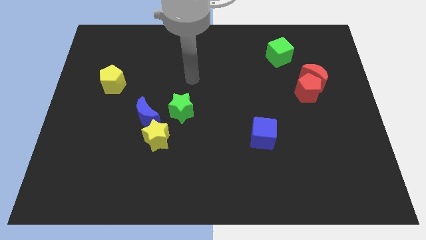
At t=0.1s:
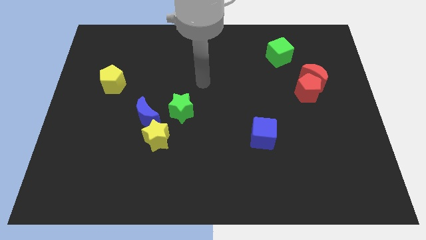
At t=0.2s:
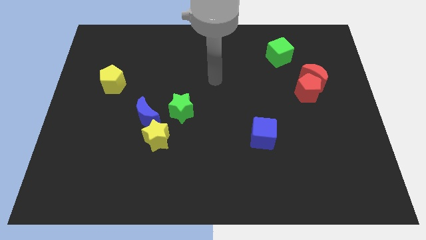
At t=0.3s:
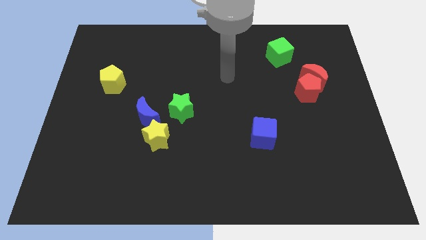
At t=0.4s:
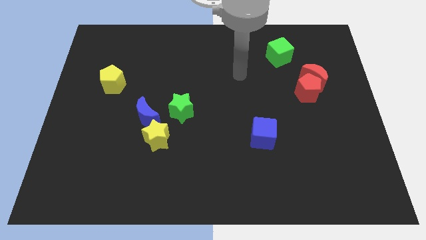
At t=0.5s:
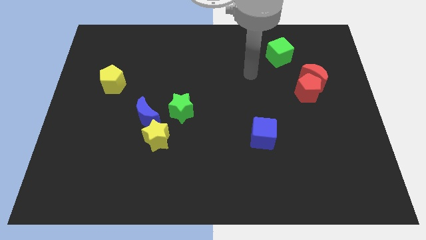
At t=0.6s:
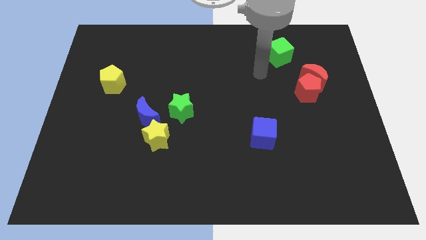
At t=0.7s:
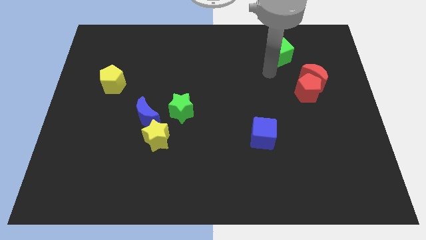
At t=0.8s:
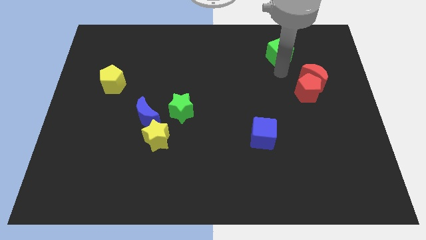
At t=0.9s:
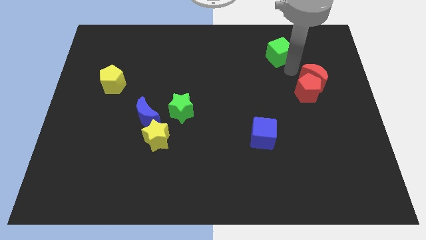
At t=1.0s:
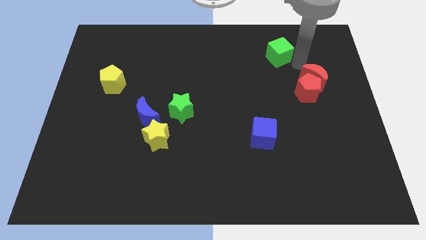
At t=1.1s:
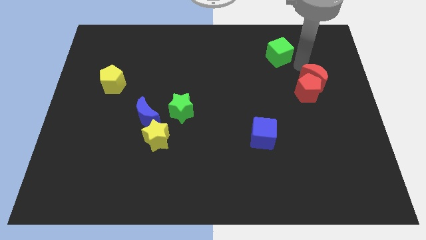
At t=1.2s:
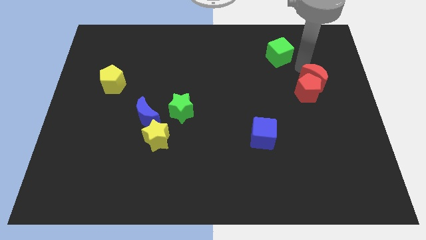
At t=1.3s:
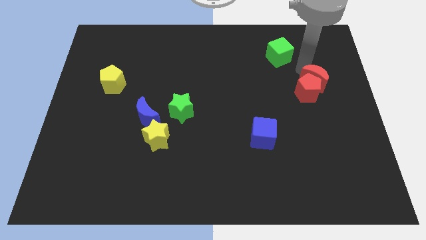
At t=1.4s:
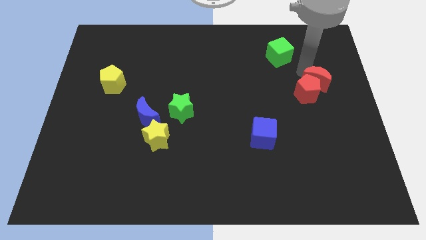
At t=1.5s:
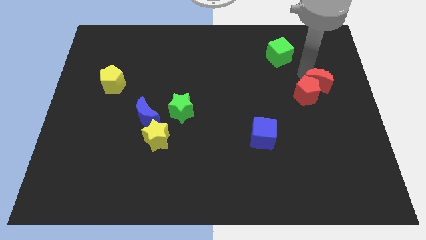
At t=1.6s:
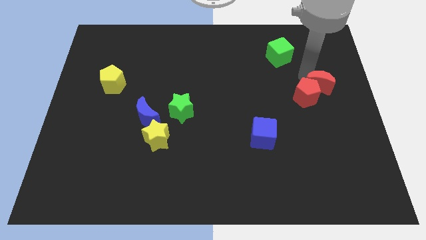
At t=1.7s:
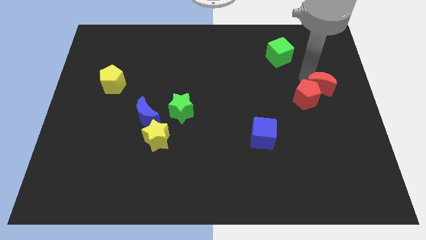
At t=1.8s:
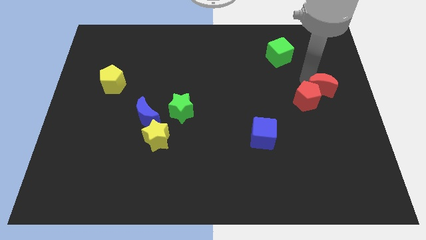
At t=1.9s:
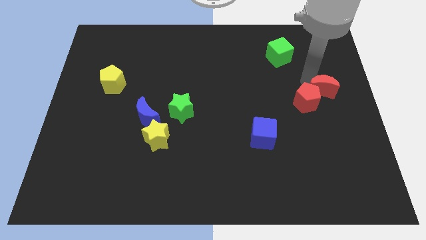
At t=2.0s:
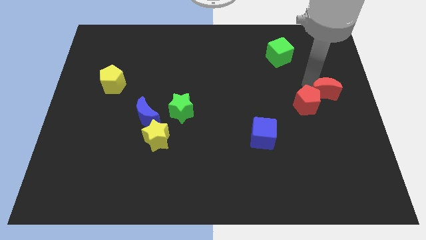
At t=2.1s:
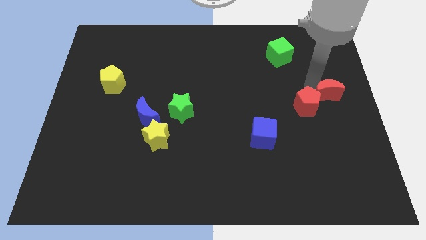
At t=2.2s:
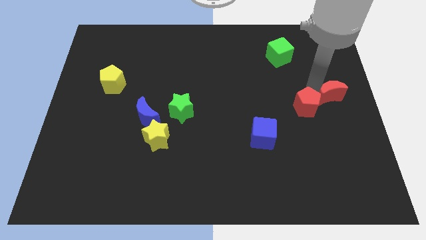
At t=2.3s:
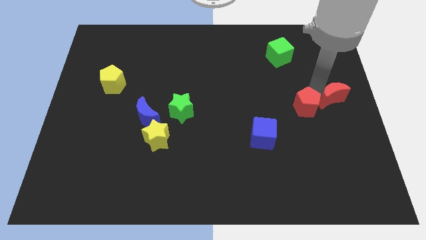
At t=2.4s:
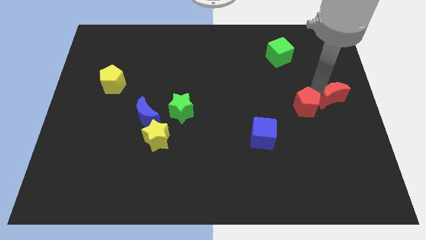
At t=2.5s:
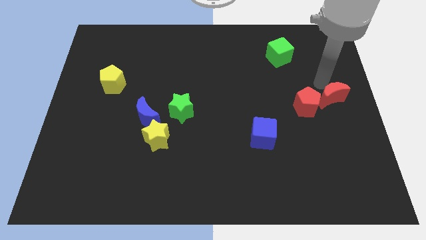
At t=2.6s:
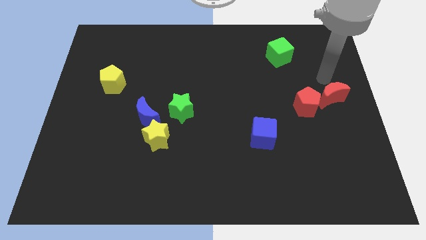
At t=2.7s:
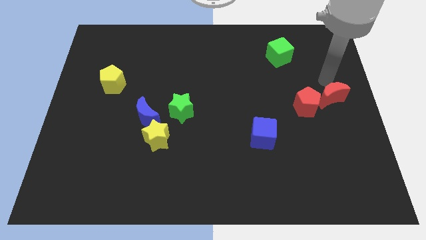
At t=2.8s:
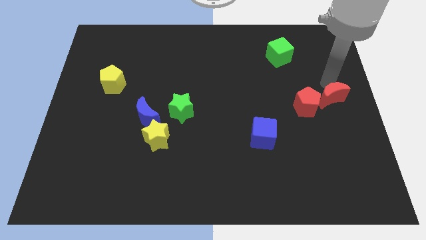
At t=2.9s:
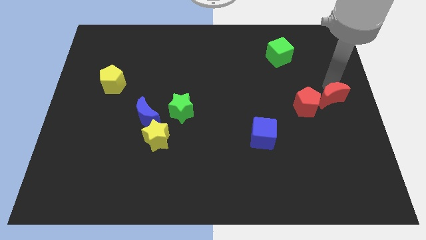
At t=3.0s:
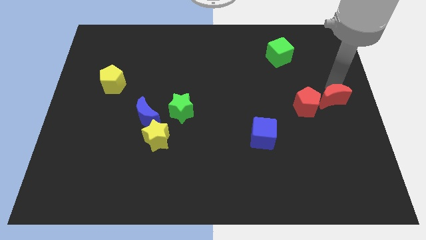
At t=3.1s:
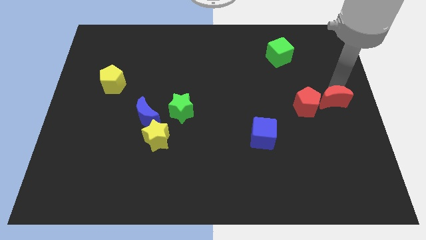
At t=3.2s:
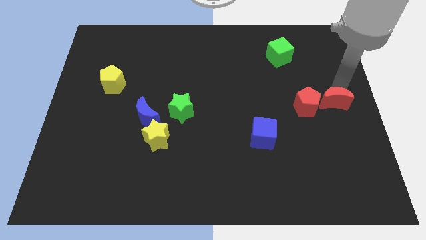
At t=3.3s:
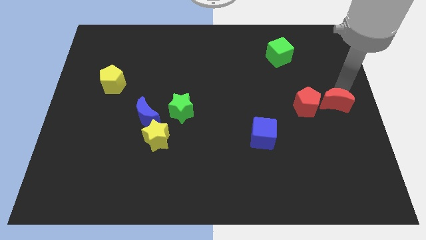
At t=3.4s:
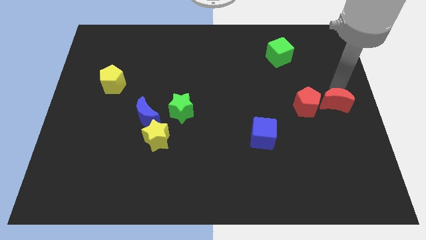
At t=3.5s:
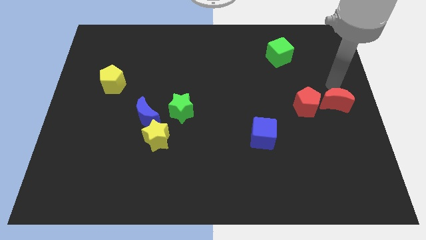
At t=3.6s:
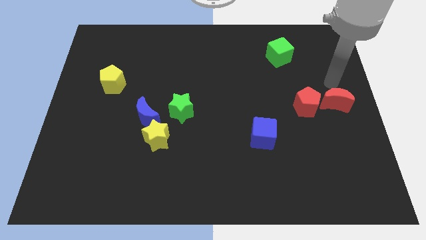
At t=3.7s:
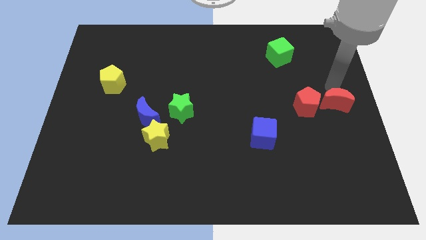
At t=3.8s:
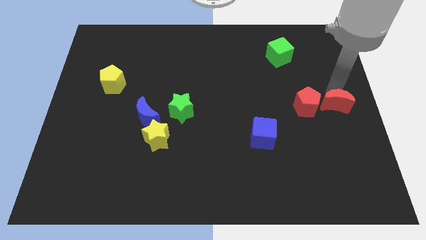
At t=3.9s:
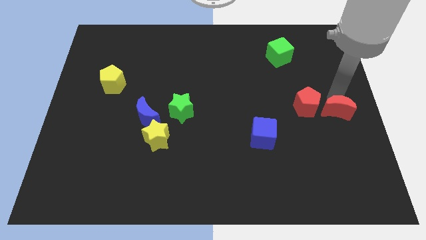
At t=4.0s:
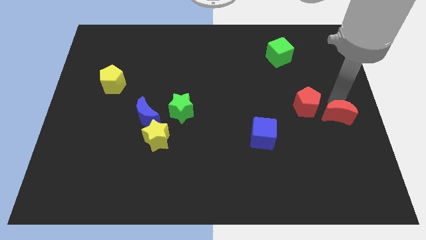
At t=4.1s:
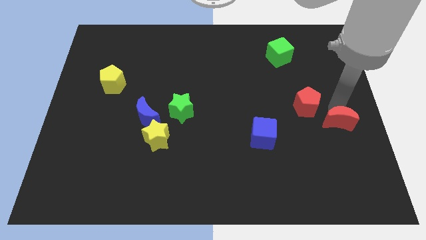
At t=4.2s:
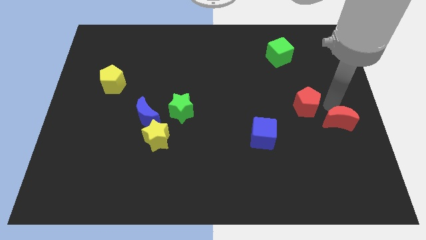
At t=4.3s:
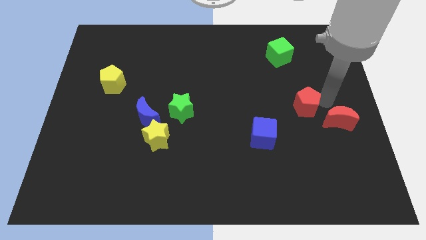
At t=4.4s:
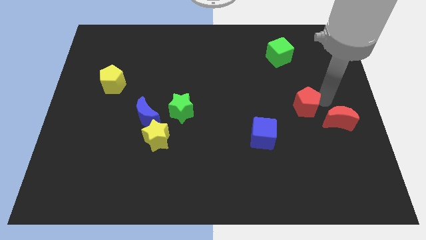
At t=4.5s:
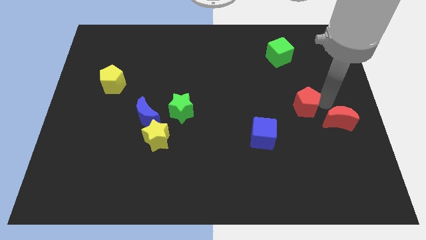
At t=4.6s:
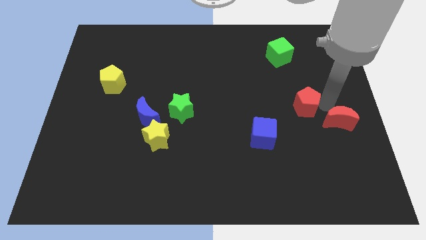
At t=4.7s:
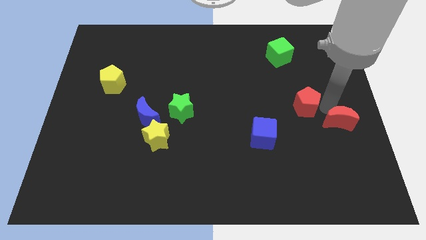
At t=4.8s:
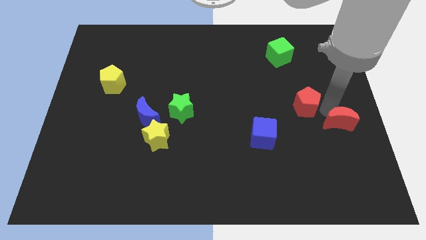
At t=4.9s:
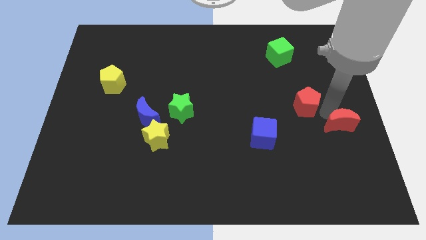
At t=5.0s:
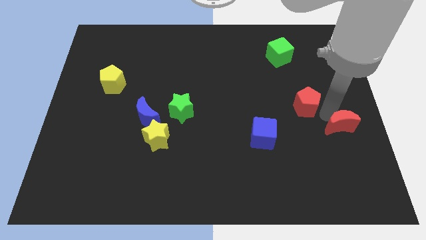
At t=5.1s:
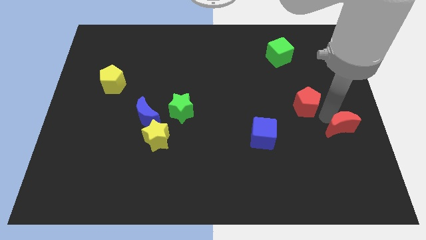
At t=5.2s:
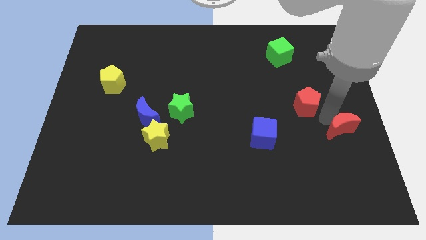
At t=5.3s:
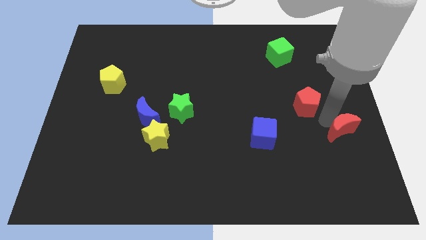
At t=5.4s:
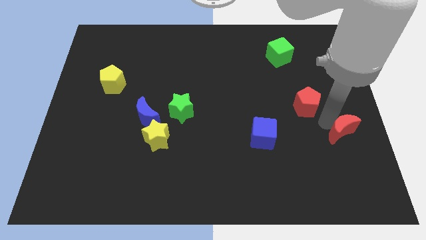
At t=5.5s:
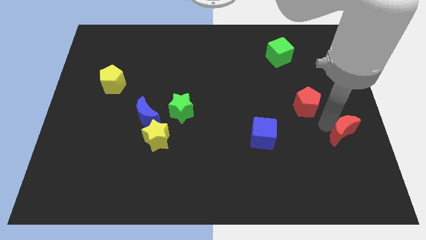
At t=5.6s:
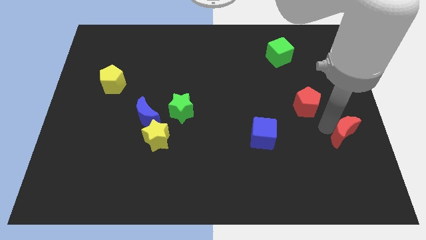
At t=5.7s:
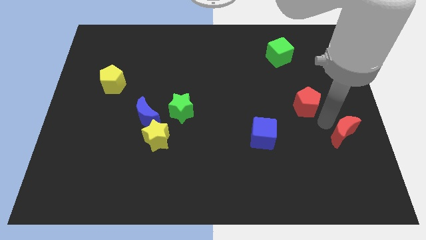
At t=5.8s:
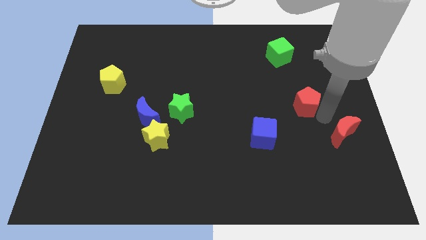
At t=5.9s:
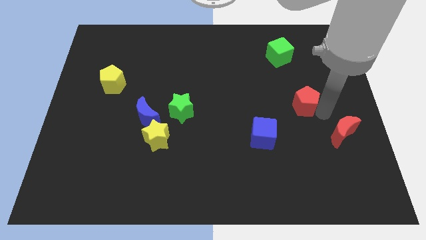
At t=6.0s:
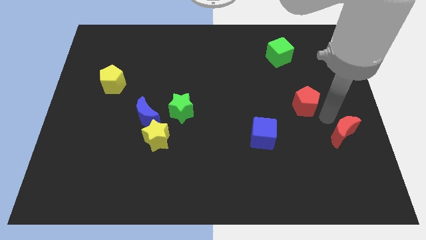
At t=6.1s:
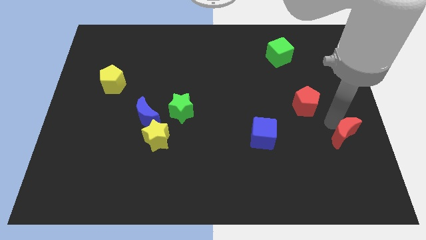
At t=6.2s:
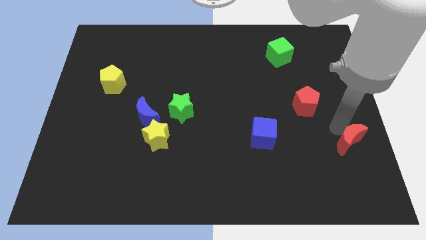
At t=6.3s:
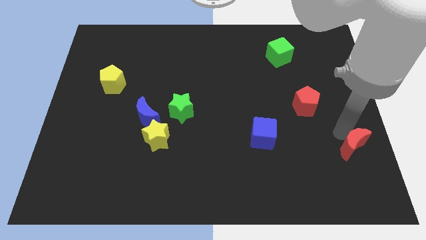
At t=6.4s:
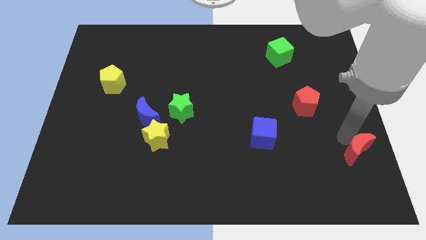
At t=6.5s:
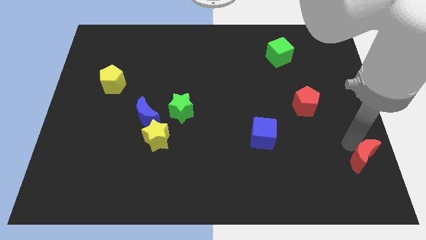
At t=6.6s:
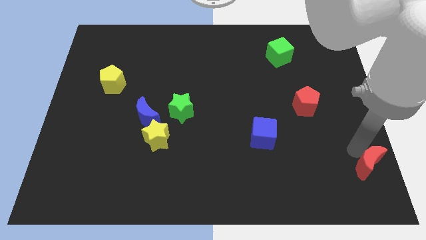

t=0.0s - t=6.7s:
put the red moon to the bottom right of the board

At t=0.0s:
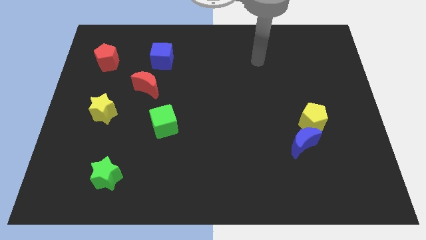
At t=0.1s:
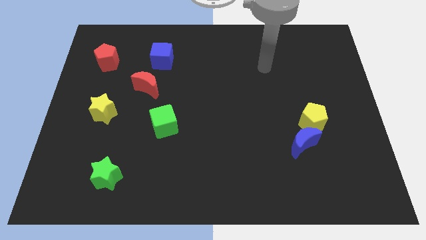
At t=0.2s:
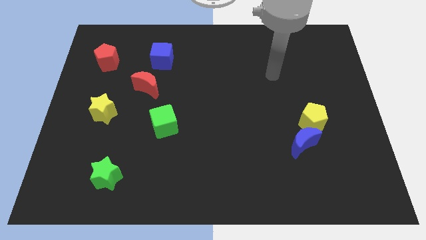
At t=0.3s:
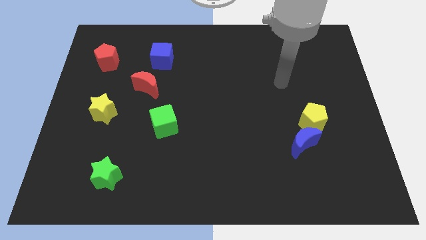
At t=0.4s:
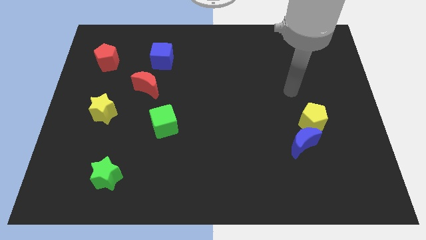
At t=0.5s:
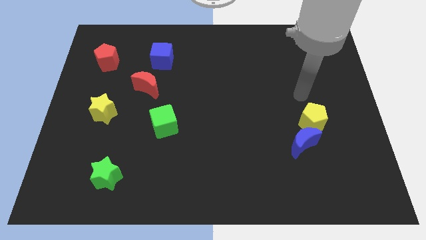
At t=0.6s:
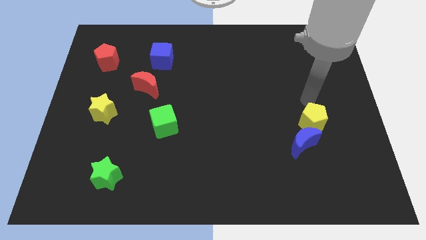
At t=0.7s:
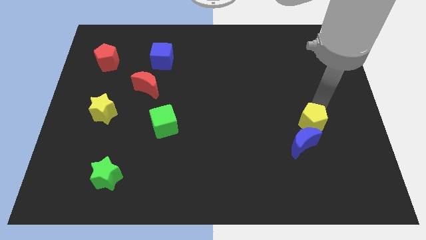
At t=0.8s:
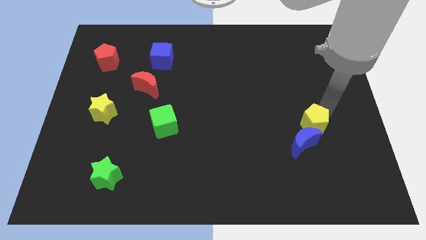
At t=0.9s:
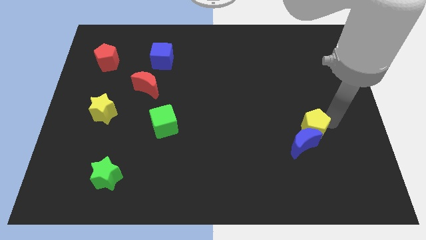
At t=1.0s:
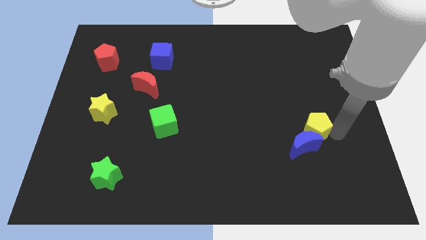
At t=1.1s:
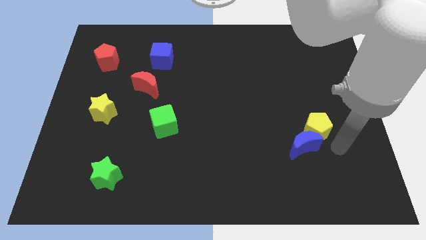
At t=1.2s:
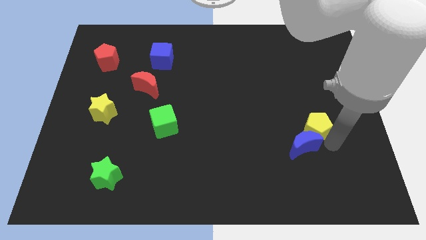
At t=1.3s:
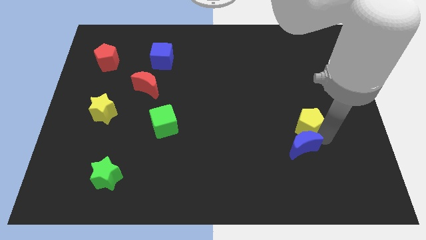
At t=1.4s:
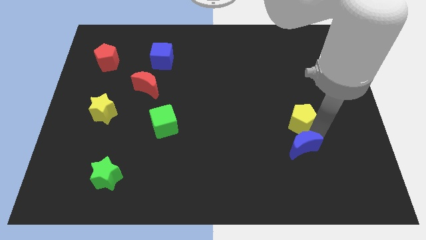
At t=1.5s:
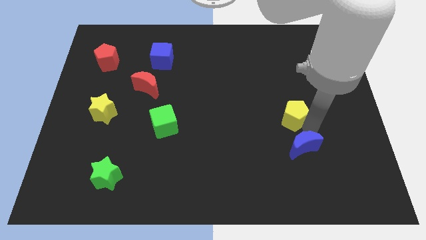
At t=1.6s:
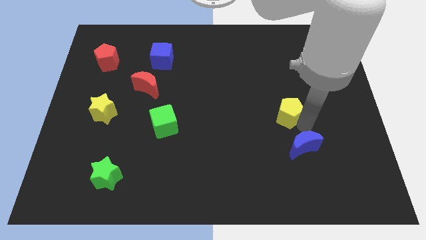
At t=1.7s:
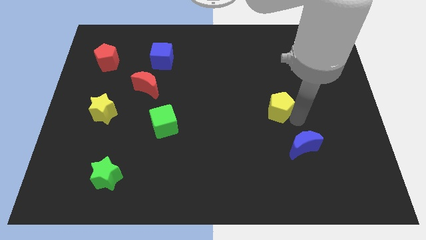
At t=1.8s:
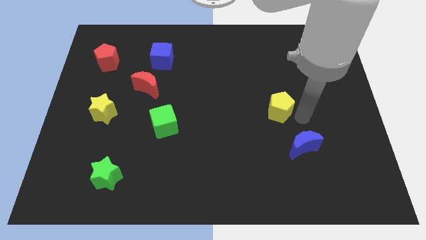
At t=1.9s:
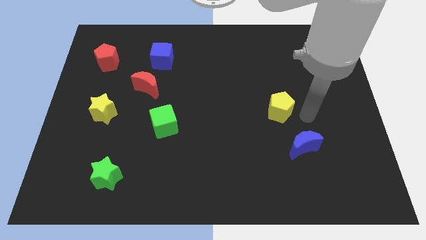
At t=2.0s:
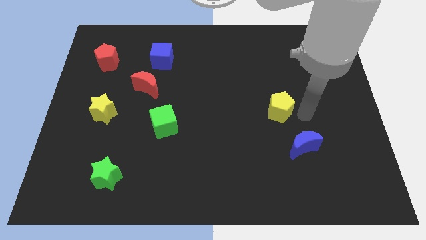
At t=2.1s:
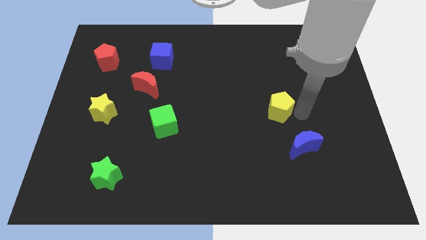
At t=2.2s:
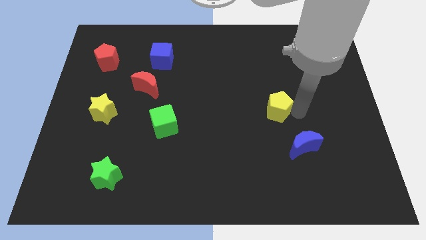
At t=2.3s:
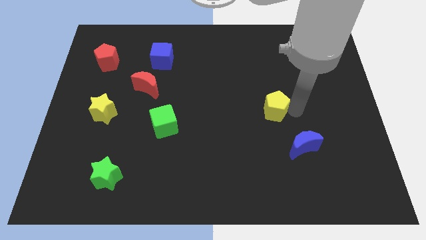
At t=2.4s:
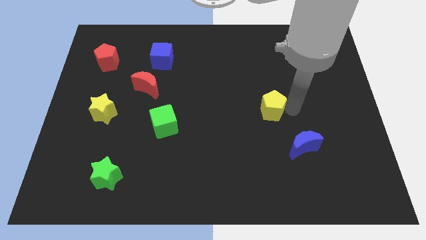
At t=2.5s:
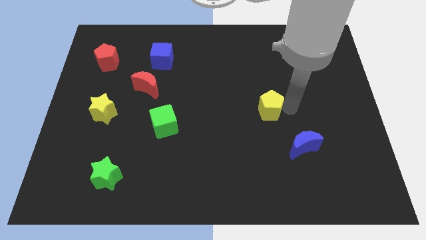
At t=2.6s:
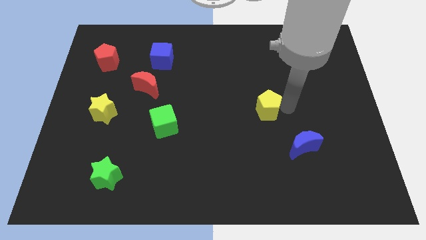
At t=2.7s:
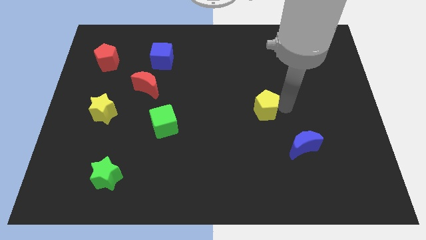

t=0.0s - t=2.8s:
move the yellow pentagon to the center of the board
